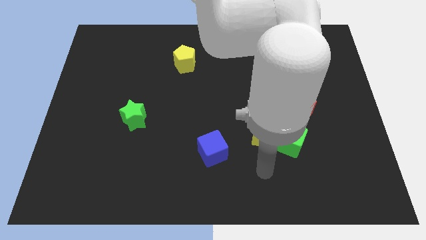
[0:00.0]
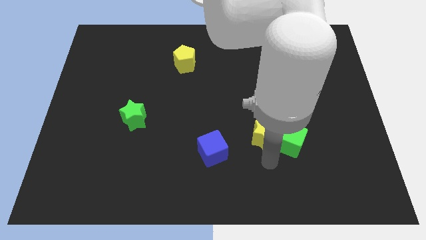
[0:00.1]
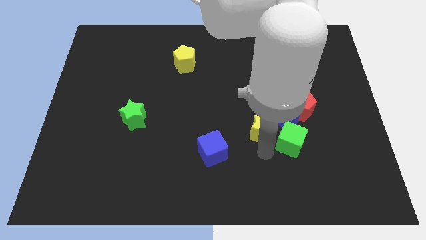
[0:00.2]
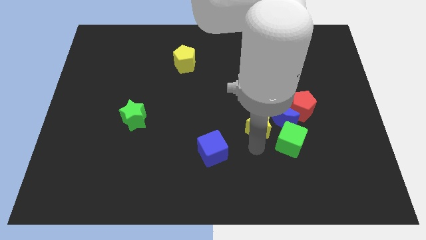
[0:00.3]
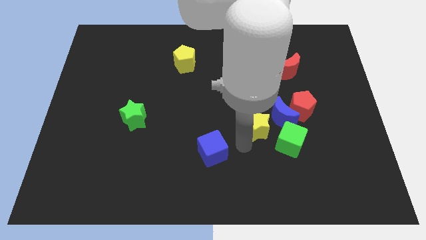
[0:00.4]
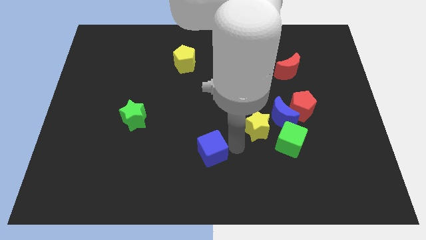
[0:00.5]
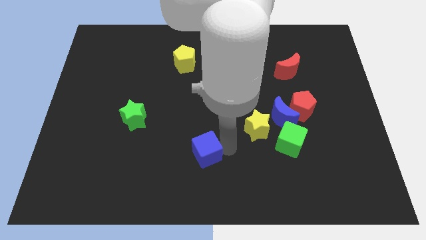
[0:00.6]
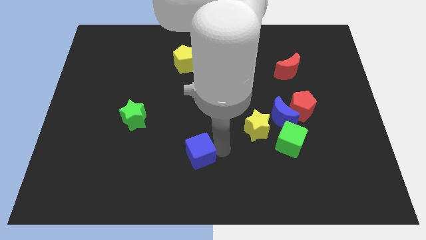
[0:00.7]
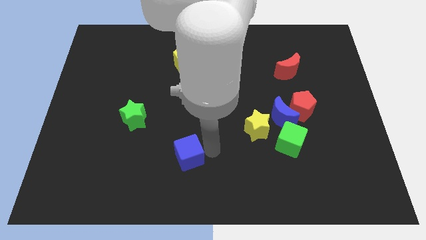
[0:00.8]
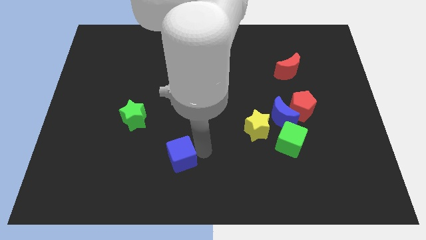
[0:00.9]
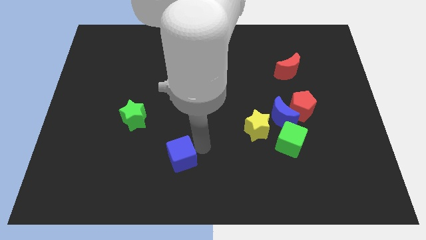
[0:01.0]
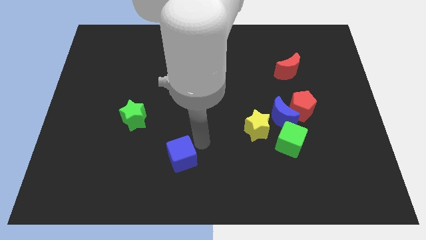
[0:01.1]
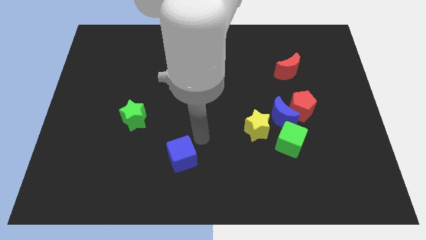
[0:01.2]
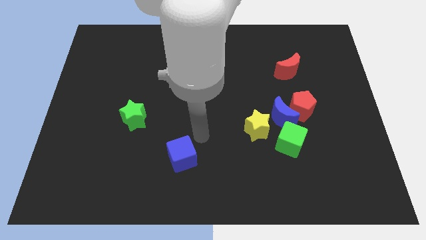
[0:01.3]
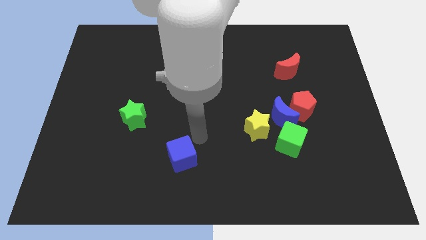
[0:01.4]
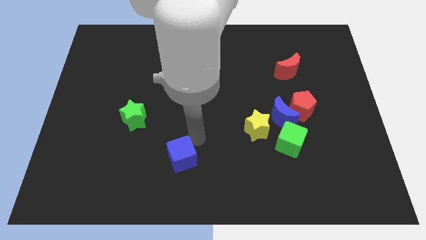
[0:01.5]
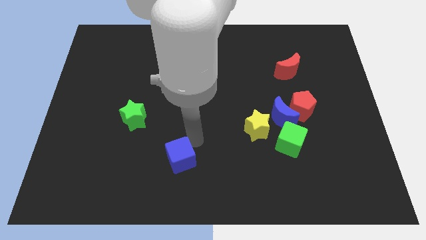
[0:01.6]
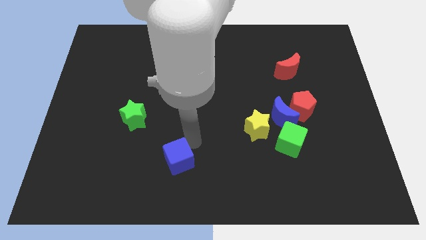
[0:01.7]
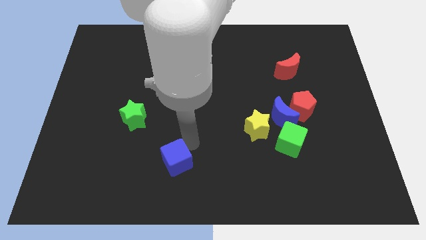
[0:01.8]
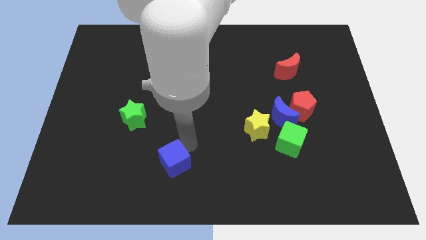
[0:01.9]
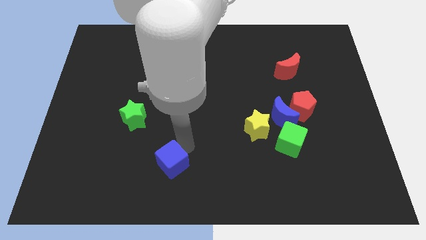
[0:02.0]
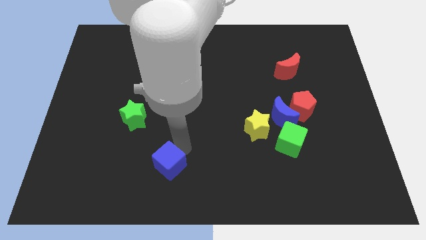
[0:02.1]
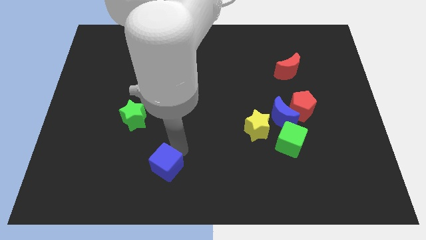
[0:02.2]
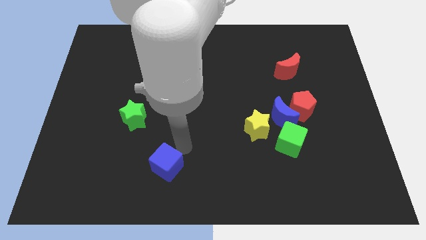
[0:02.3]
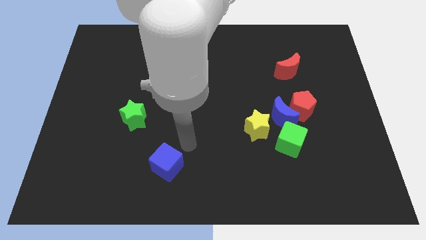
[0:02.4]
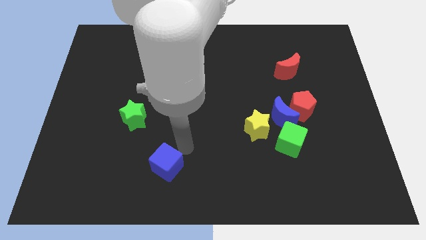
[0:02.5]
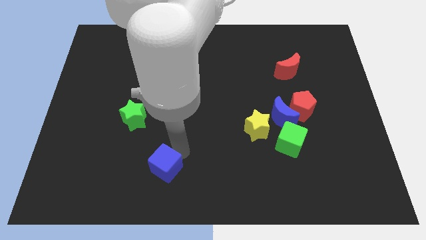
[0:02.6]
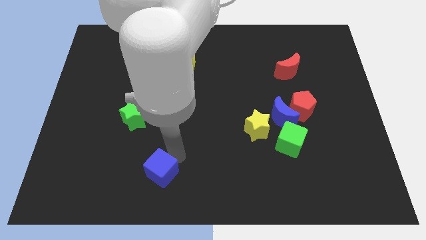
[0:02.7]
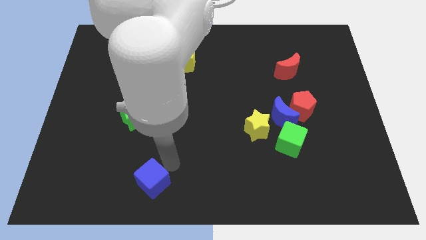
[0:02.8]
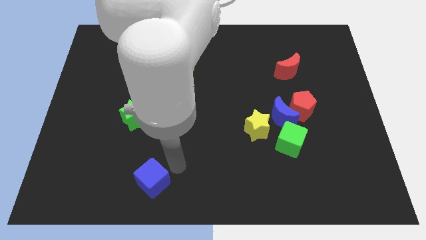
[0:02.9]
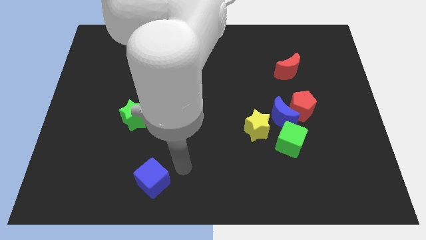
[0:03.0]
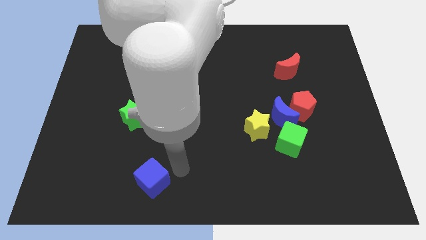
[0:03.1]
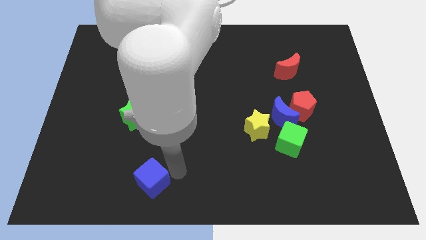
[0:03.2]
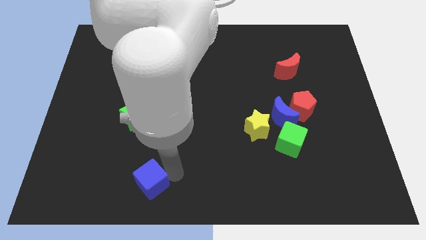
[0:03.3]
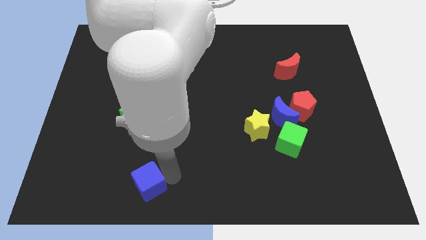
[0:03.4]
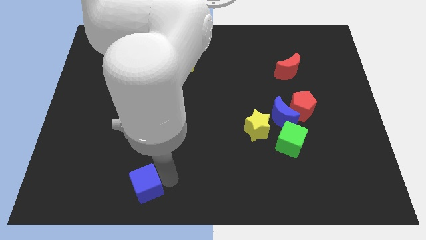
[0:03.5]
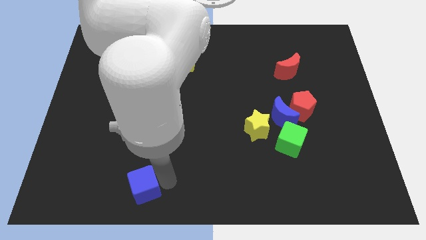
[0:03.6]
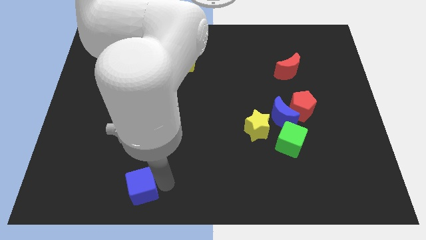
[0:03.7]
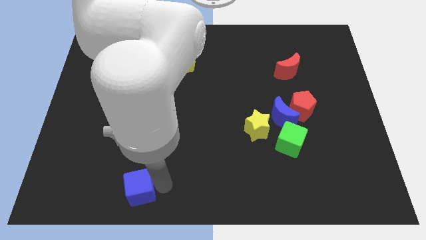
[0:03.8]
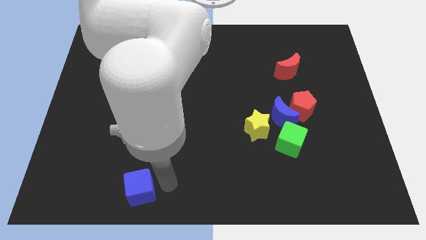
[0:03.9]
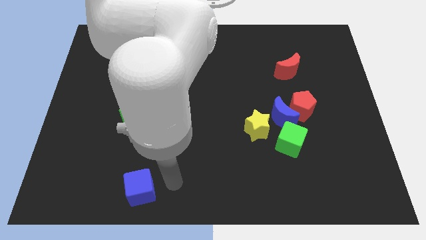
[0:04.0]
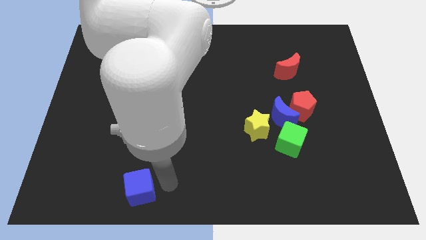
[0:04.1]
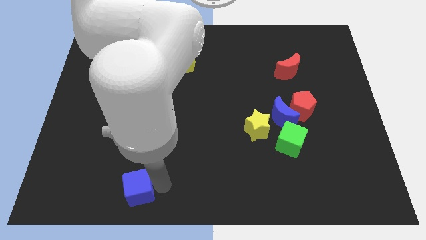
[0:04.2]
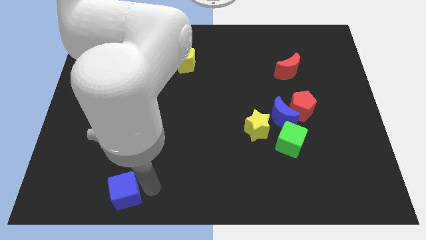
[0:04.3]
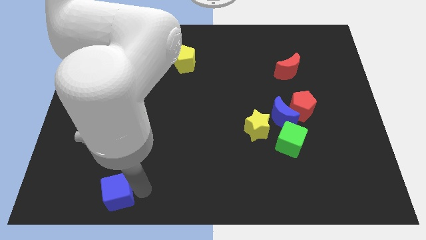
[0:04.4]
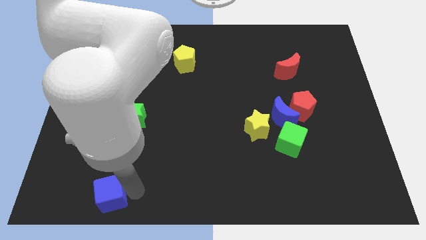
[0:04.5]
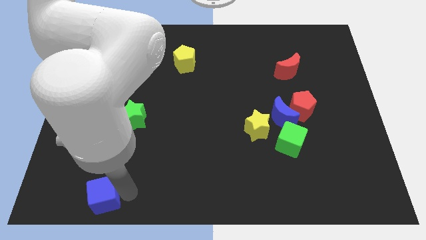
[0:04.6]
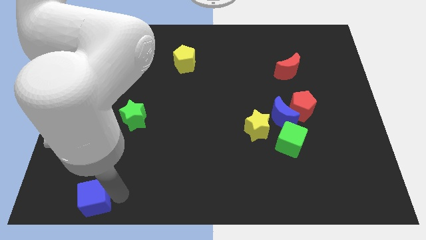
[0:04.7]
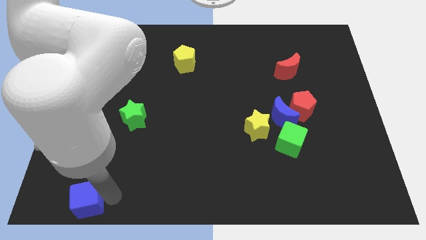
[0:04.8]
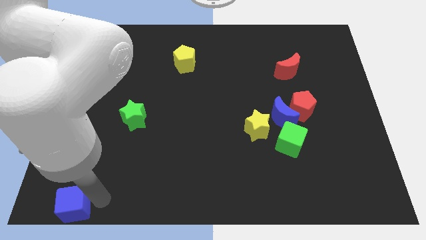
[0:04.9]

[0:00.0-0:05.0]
put the blue cube to the bottom left corner

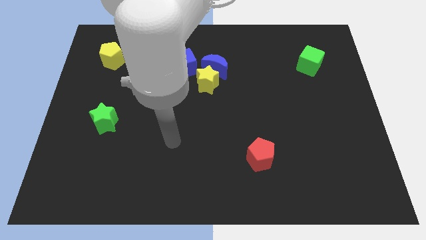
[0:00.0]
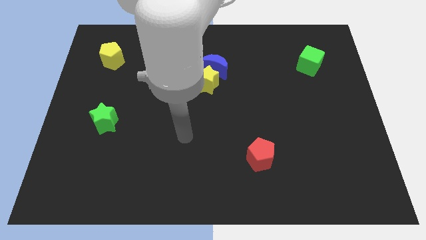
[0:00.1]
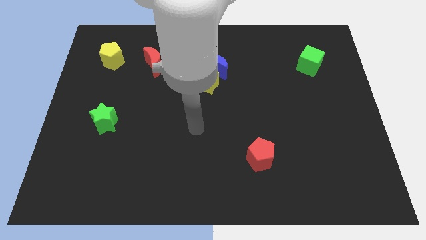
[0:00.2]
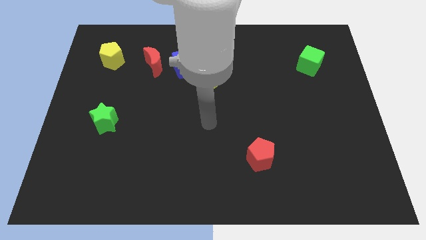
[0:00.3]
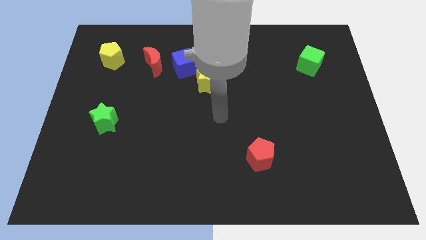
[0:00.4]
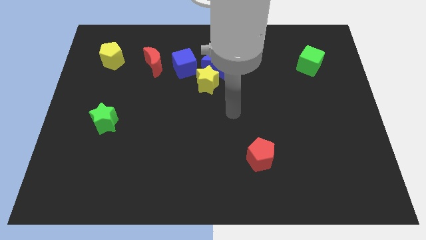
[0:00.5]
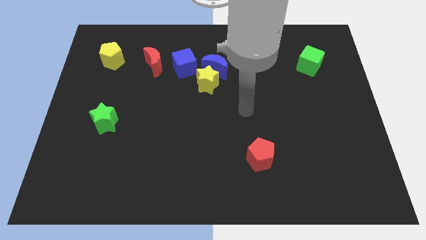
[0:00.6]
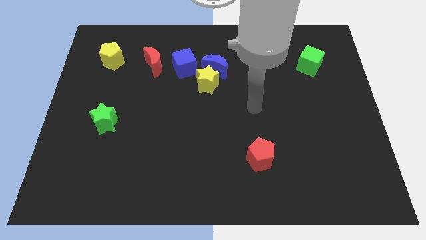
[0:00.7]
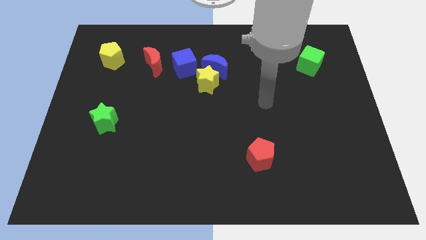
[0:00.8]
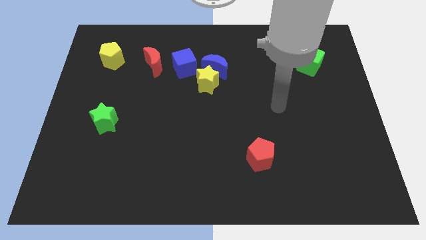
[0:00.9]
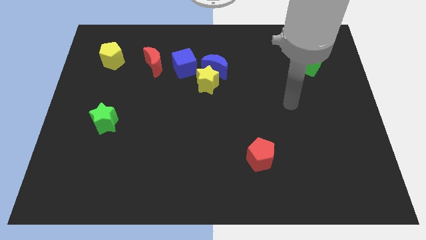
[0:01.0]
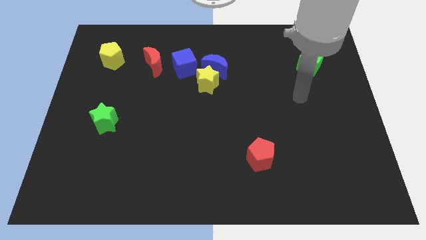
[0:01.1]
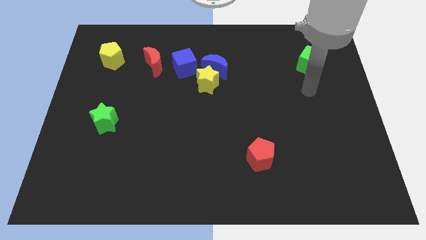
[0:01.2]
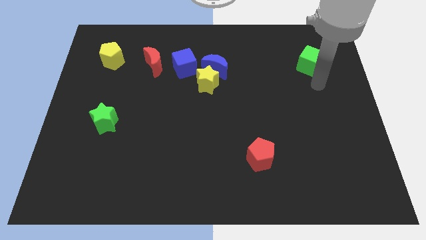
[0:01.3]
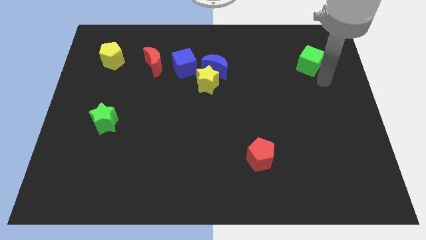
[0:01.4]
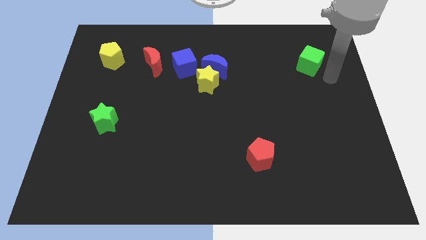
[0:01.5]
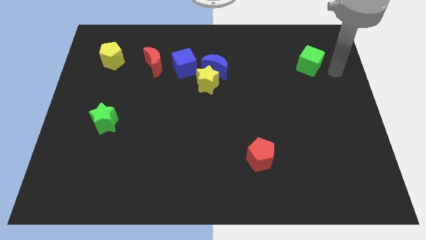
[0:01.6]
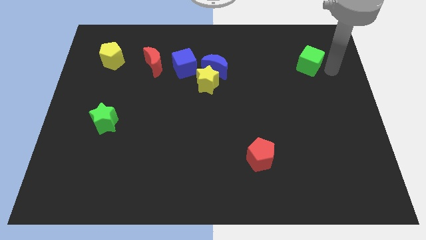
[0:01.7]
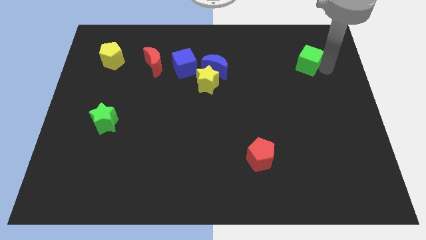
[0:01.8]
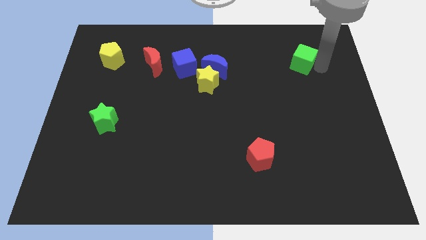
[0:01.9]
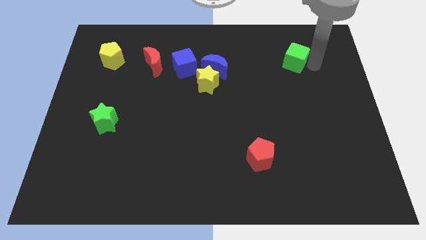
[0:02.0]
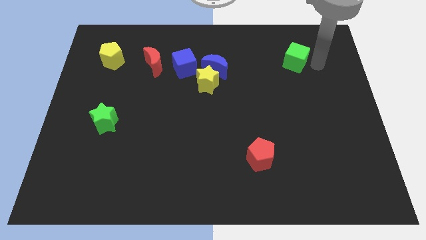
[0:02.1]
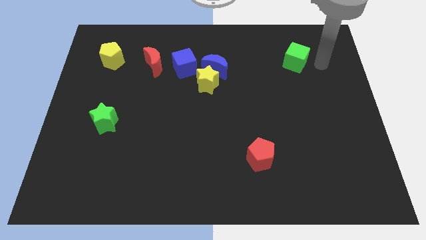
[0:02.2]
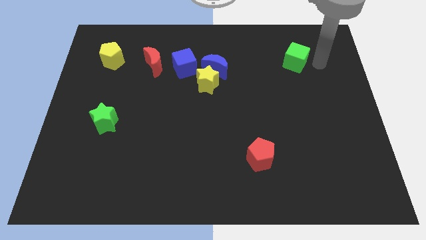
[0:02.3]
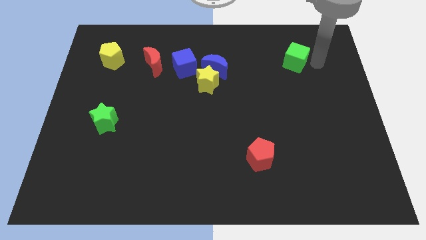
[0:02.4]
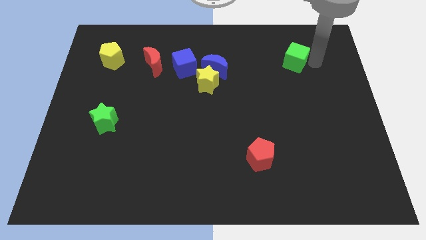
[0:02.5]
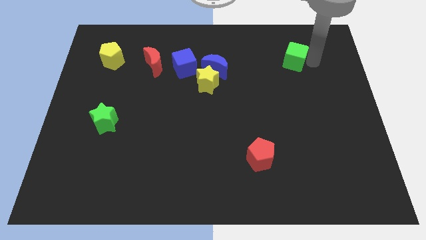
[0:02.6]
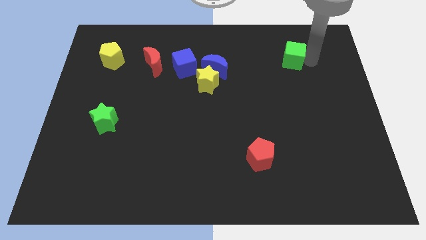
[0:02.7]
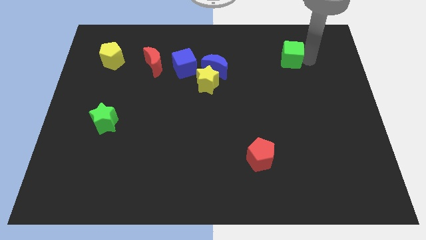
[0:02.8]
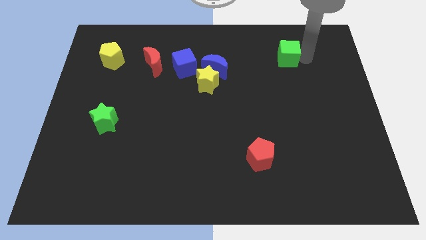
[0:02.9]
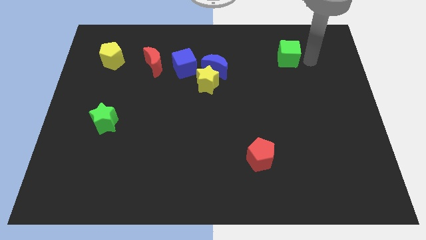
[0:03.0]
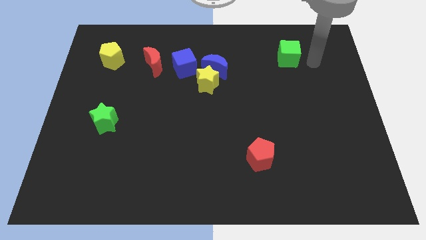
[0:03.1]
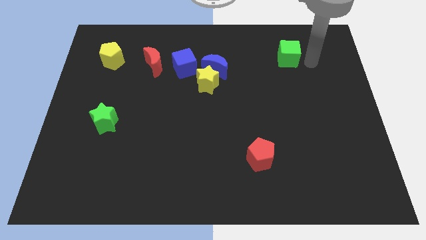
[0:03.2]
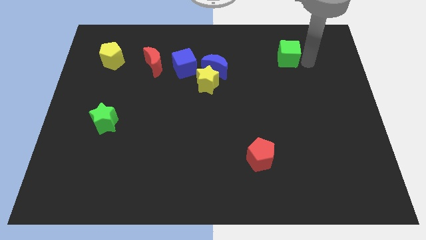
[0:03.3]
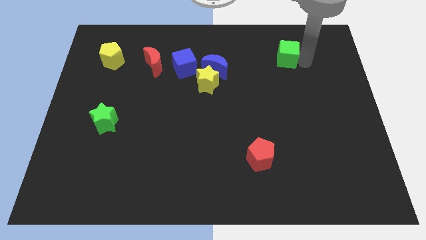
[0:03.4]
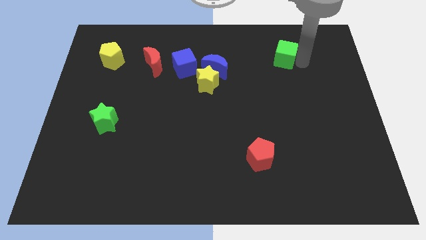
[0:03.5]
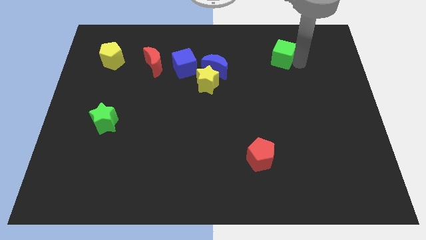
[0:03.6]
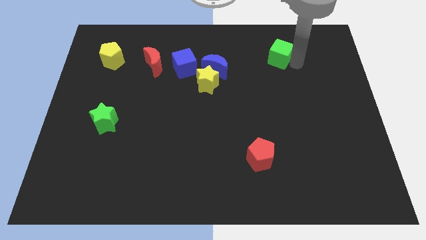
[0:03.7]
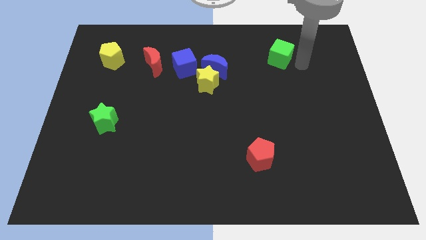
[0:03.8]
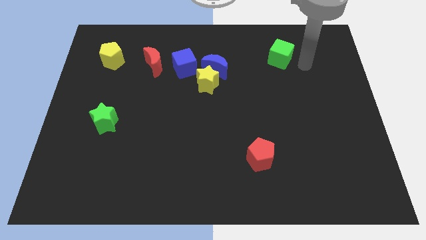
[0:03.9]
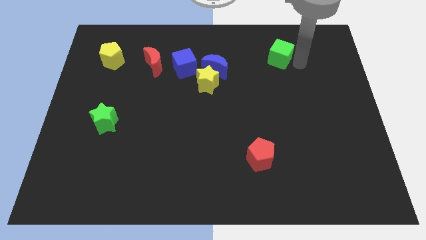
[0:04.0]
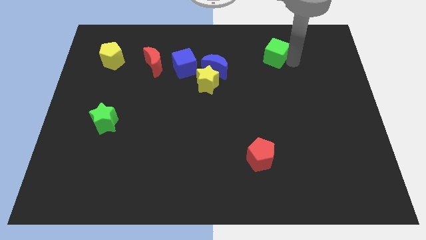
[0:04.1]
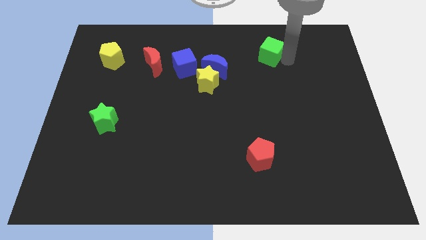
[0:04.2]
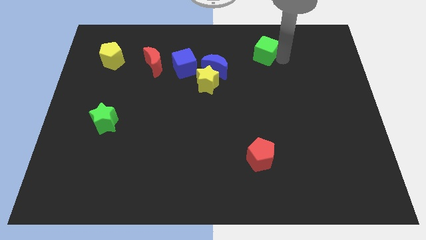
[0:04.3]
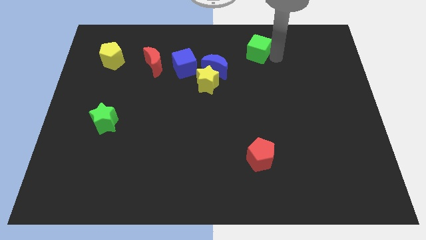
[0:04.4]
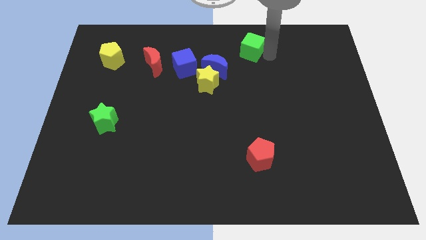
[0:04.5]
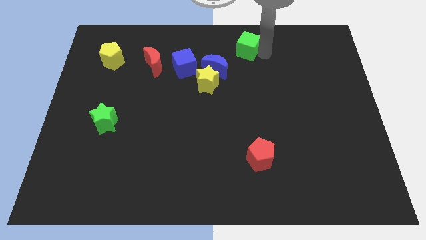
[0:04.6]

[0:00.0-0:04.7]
push the green cube to the top
